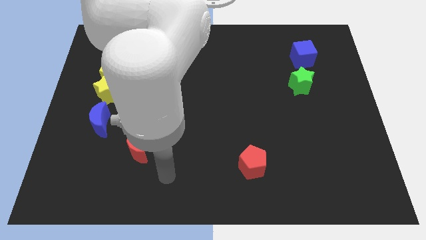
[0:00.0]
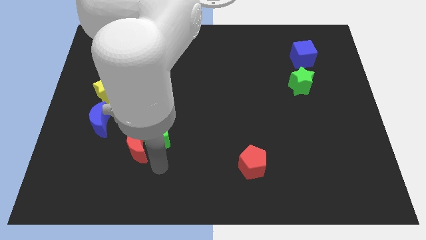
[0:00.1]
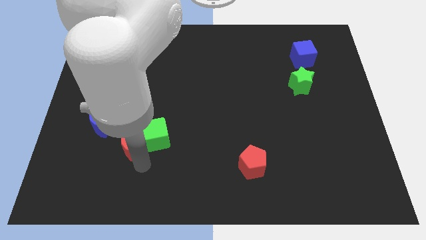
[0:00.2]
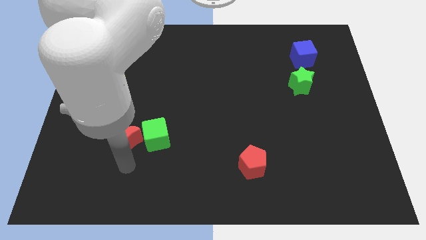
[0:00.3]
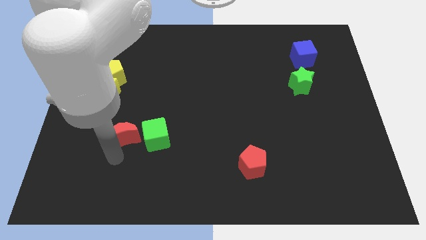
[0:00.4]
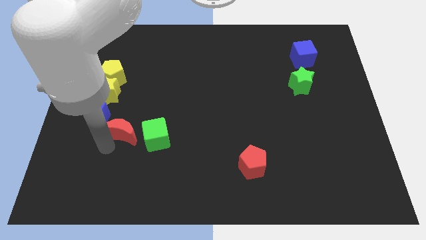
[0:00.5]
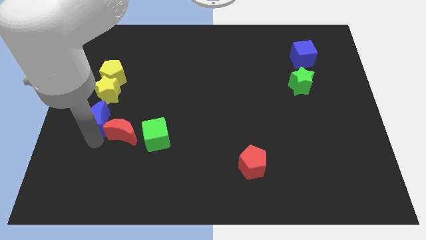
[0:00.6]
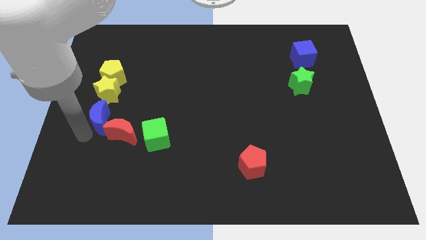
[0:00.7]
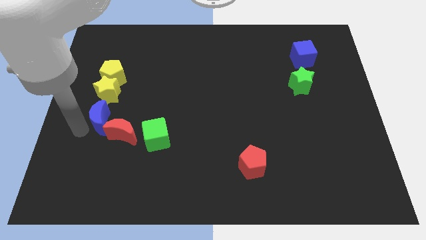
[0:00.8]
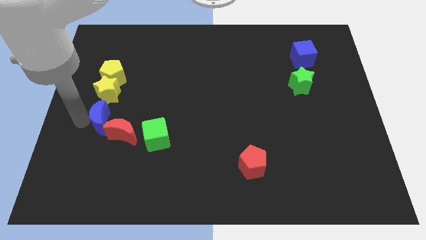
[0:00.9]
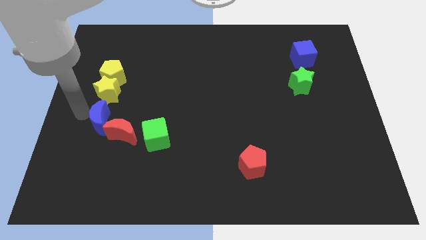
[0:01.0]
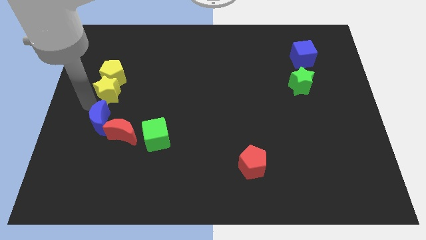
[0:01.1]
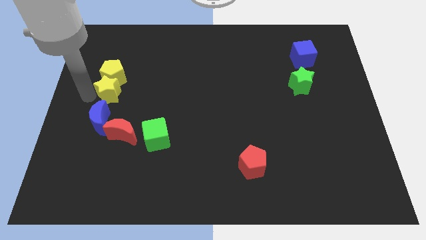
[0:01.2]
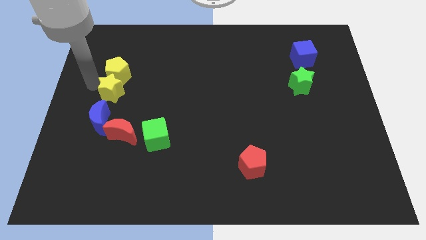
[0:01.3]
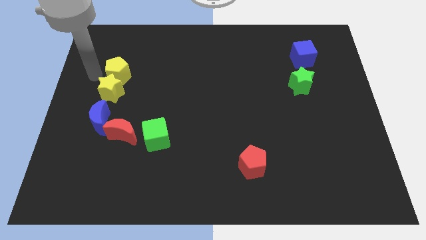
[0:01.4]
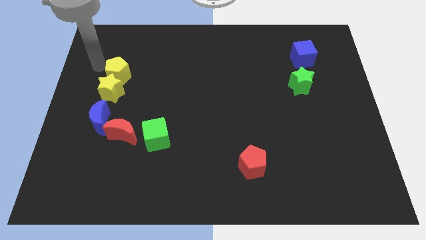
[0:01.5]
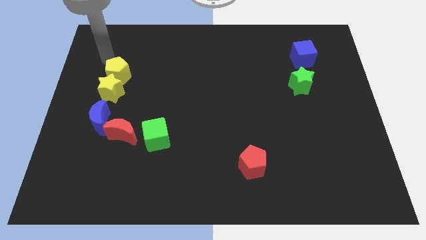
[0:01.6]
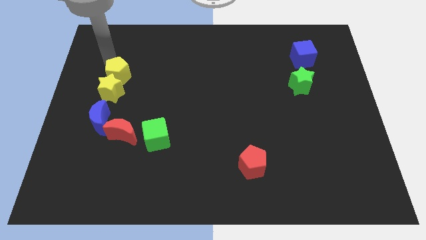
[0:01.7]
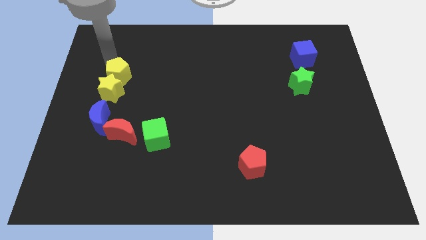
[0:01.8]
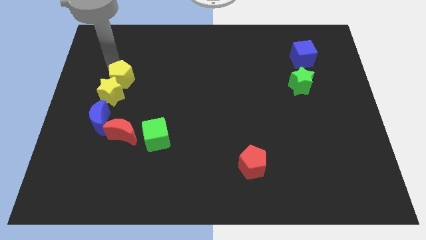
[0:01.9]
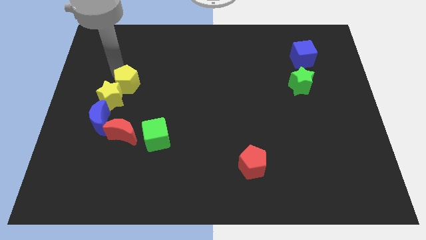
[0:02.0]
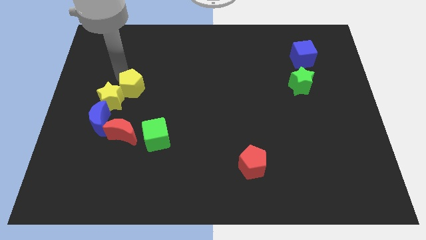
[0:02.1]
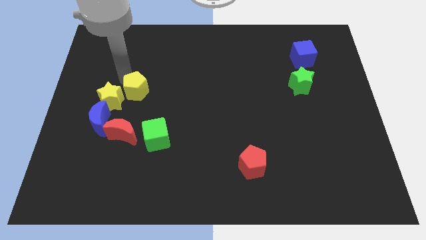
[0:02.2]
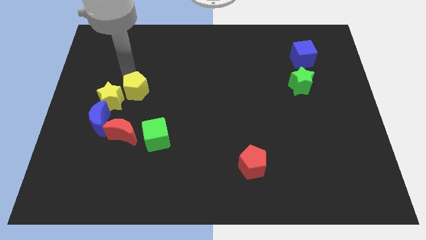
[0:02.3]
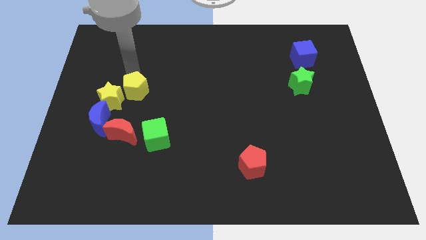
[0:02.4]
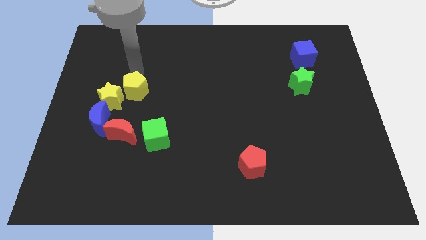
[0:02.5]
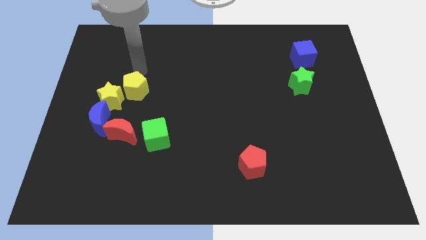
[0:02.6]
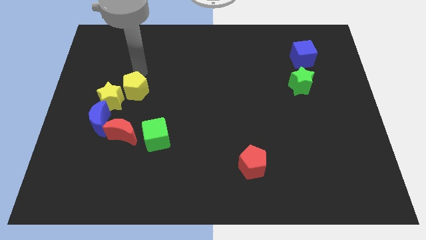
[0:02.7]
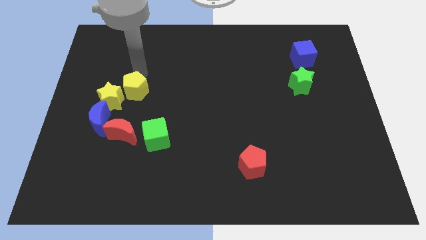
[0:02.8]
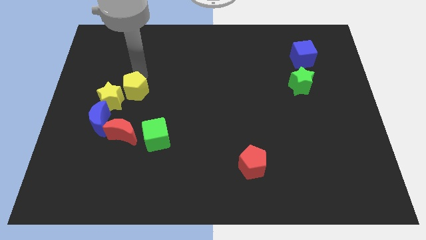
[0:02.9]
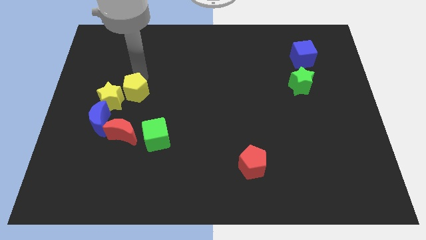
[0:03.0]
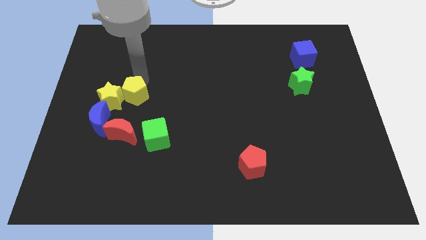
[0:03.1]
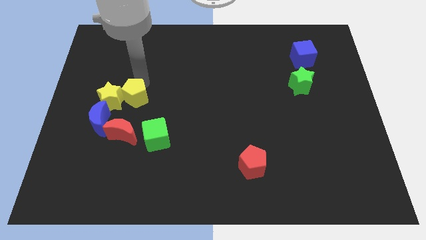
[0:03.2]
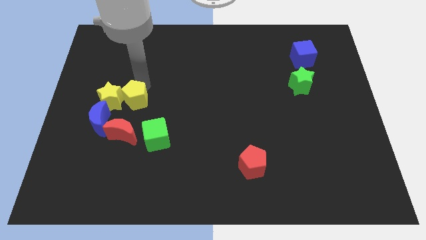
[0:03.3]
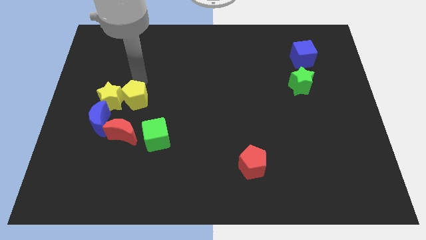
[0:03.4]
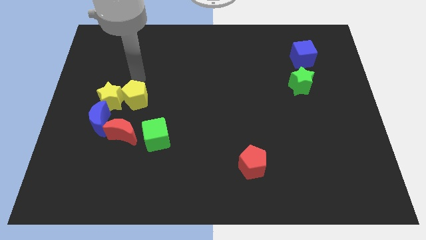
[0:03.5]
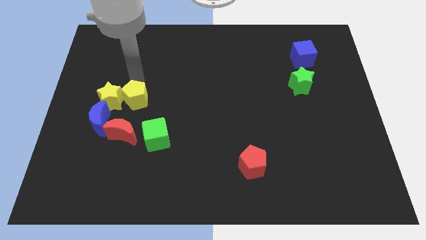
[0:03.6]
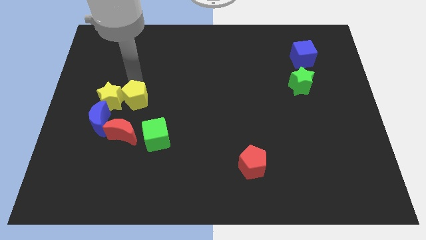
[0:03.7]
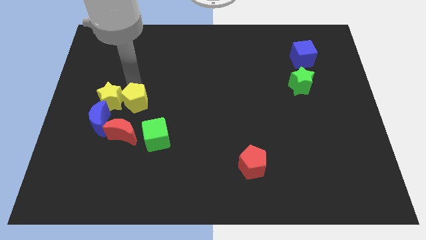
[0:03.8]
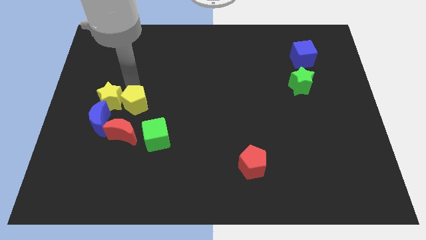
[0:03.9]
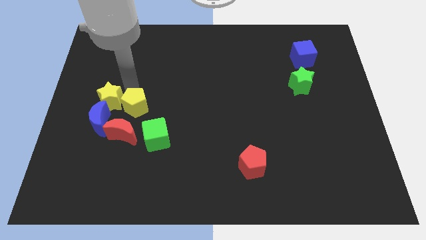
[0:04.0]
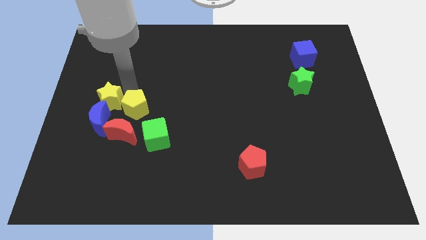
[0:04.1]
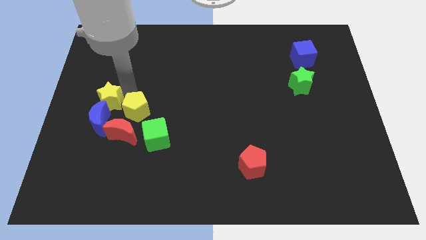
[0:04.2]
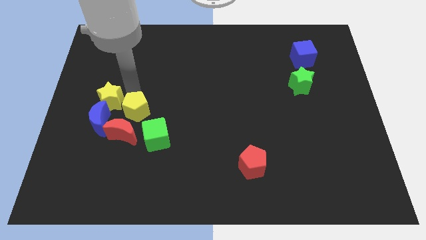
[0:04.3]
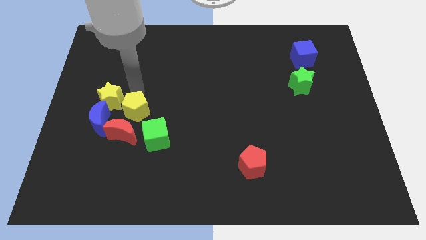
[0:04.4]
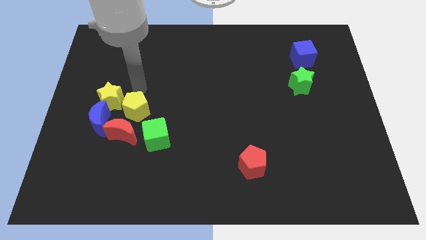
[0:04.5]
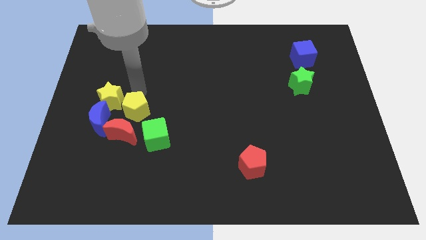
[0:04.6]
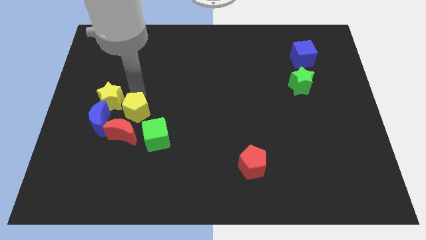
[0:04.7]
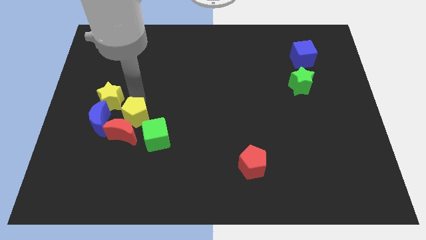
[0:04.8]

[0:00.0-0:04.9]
slide the yellow pentagon close to the red moon

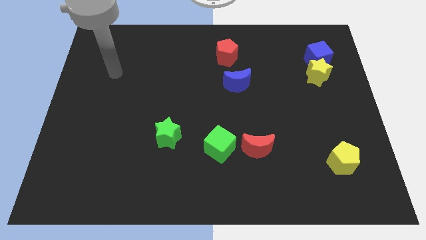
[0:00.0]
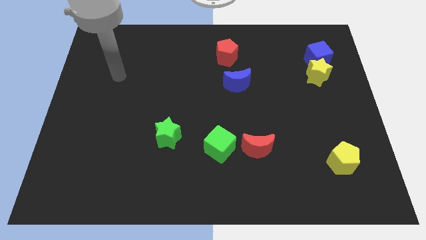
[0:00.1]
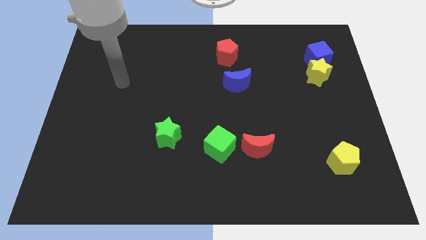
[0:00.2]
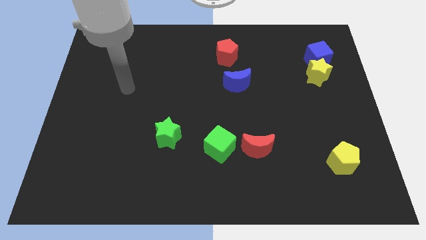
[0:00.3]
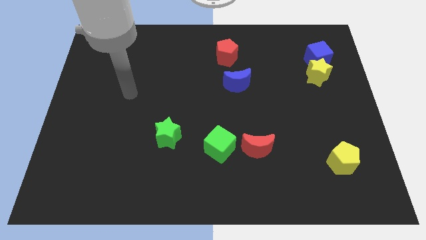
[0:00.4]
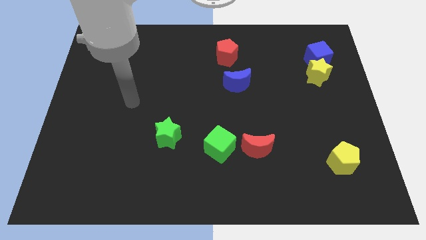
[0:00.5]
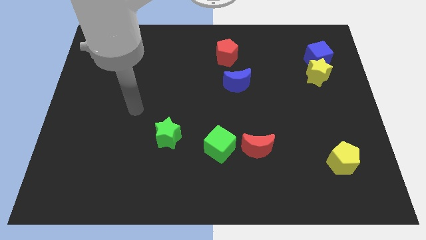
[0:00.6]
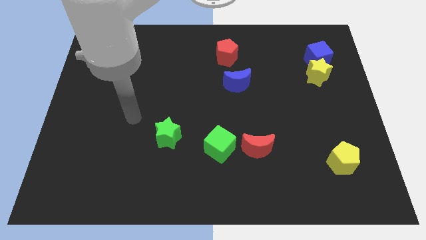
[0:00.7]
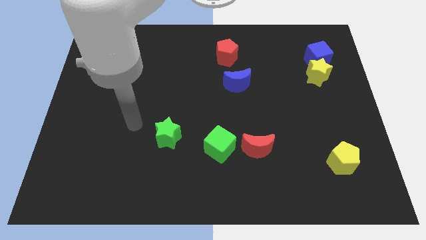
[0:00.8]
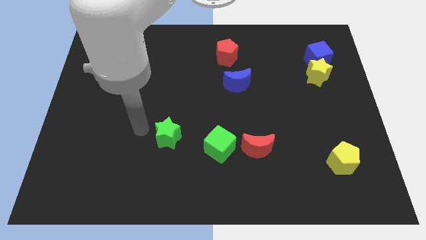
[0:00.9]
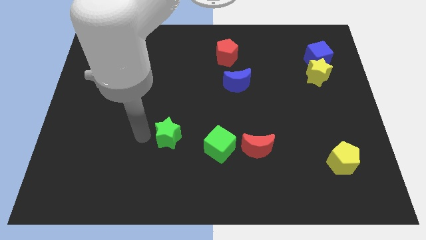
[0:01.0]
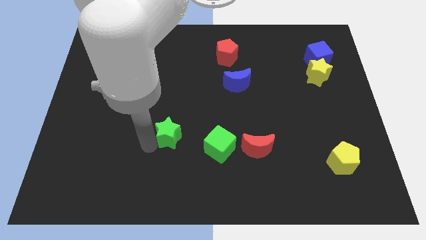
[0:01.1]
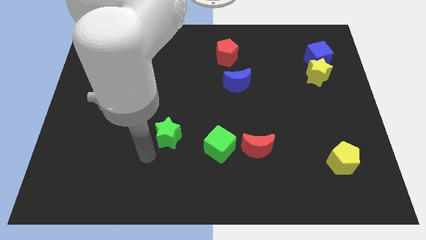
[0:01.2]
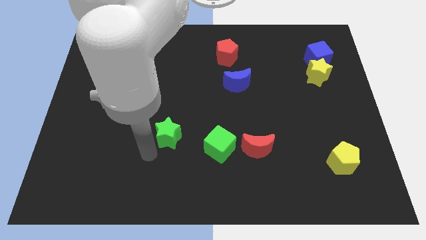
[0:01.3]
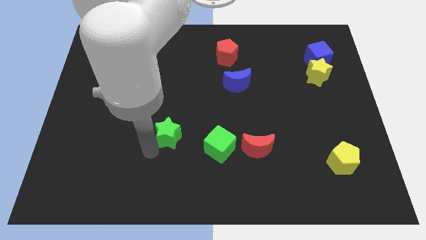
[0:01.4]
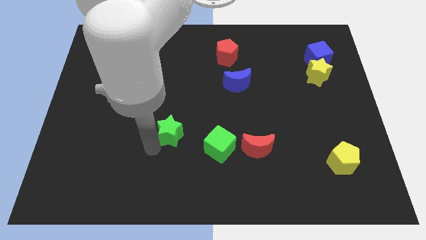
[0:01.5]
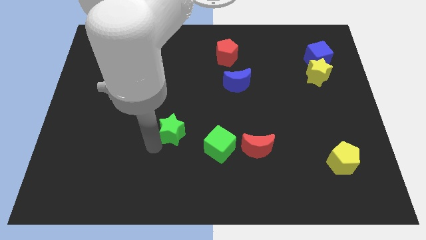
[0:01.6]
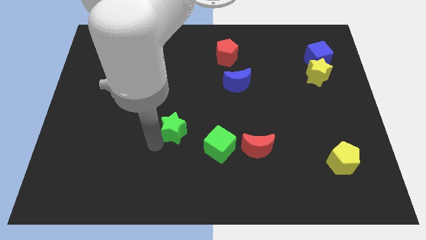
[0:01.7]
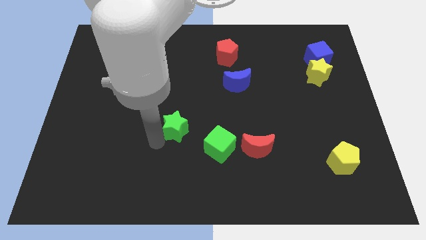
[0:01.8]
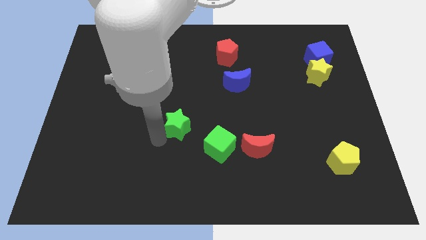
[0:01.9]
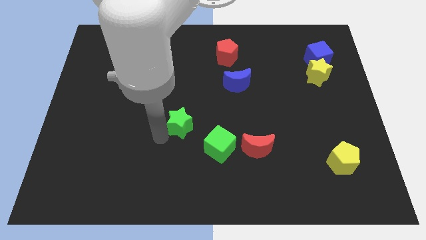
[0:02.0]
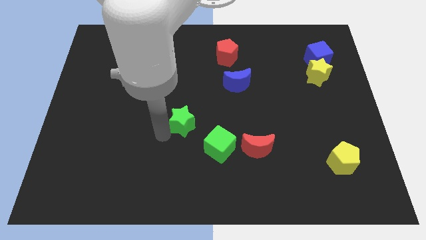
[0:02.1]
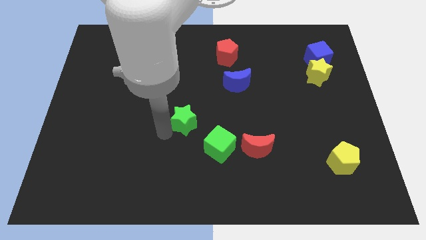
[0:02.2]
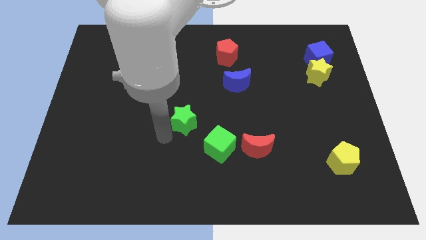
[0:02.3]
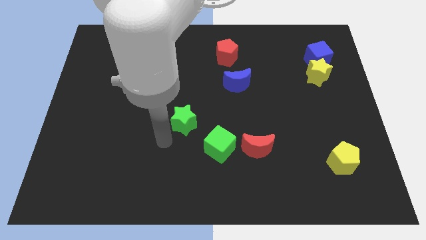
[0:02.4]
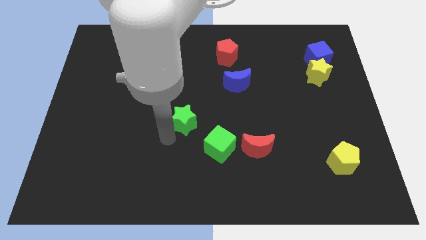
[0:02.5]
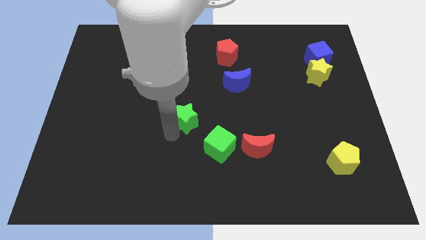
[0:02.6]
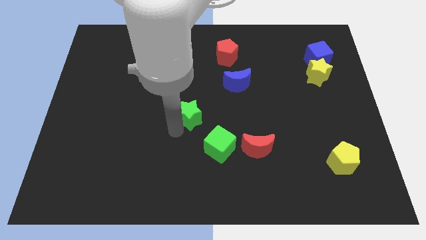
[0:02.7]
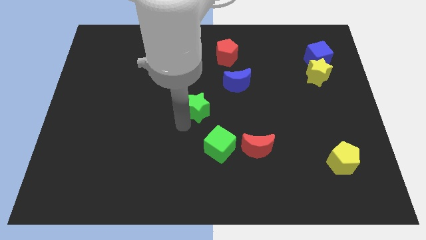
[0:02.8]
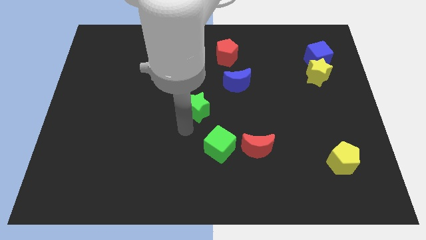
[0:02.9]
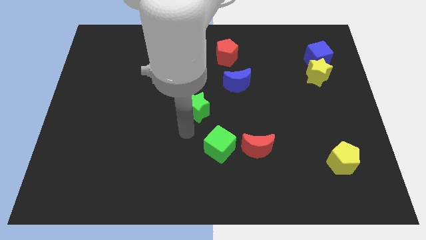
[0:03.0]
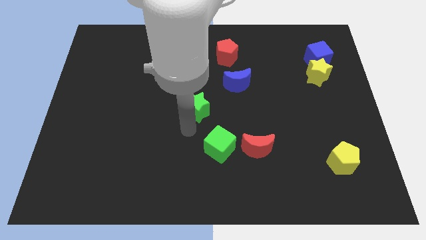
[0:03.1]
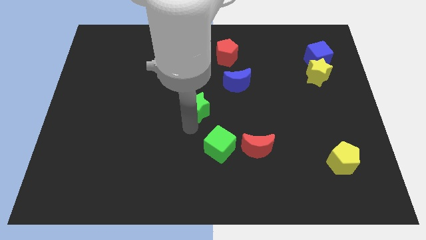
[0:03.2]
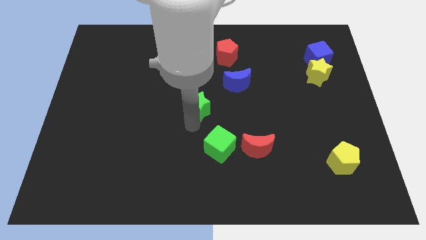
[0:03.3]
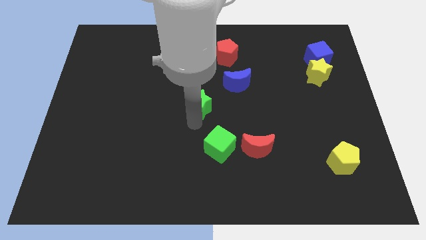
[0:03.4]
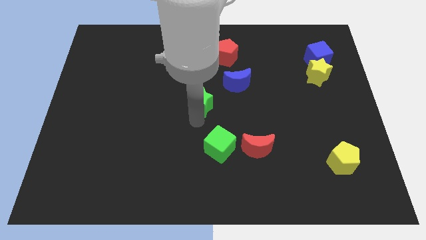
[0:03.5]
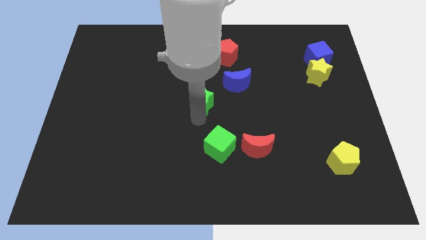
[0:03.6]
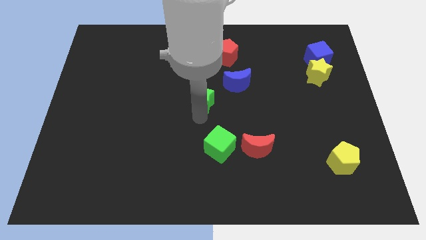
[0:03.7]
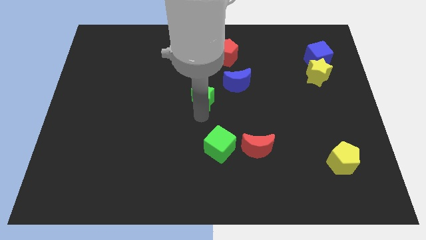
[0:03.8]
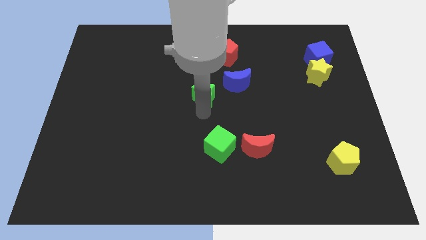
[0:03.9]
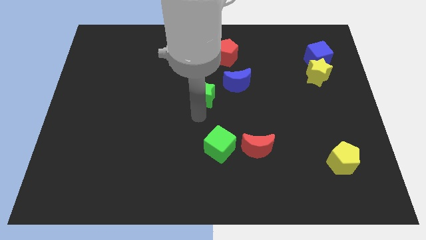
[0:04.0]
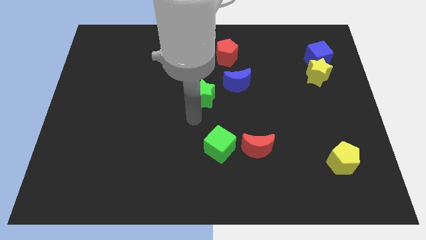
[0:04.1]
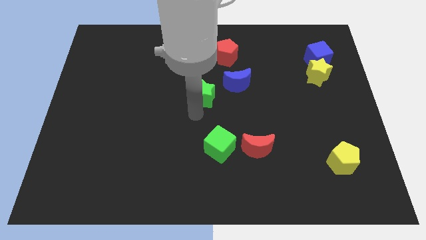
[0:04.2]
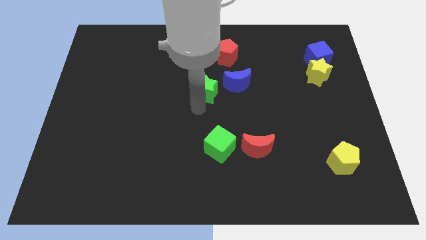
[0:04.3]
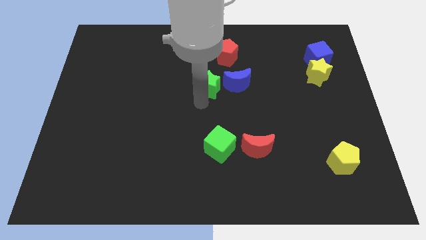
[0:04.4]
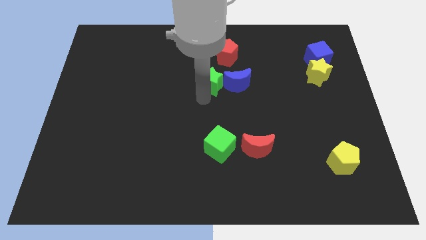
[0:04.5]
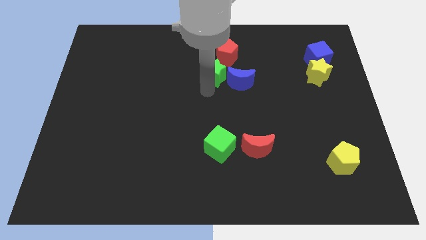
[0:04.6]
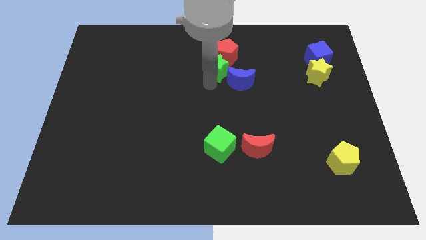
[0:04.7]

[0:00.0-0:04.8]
push the green star to the red pentagon
